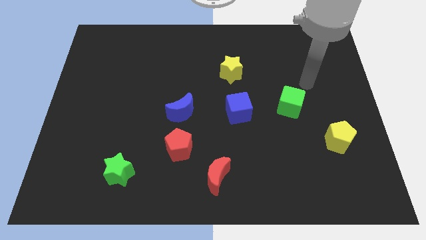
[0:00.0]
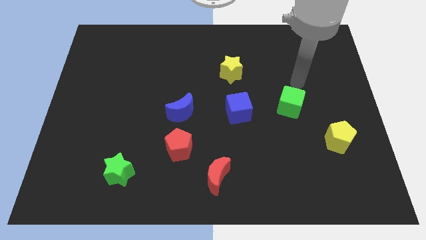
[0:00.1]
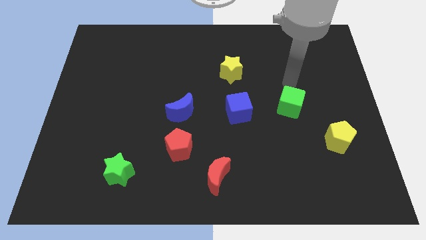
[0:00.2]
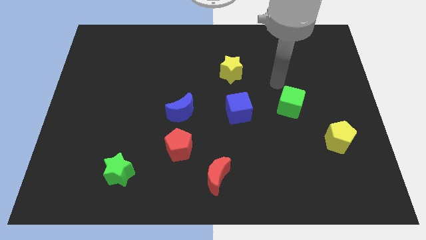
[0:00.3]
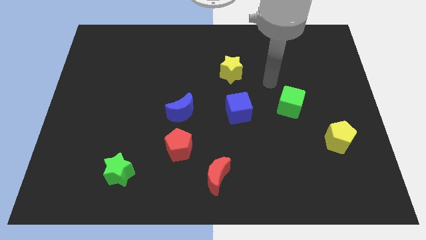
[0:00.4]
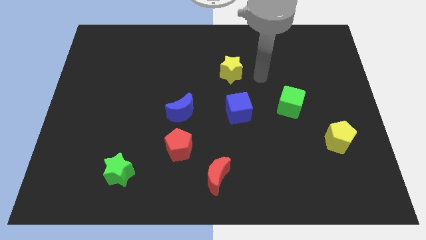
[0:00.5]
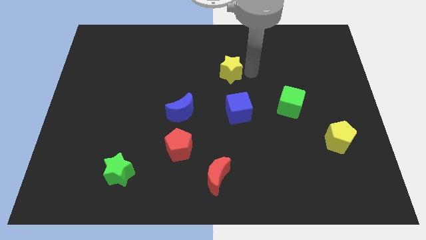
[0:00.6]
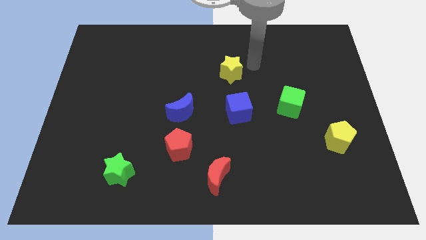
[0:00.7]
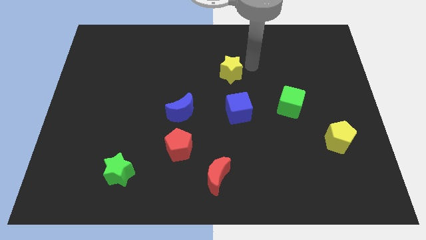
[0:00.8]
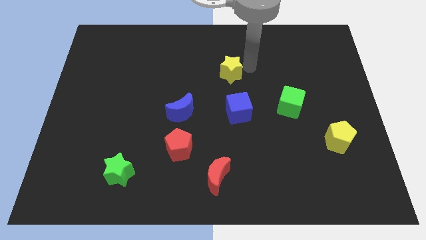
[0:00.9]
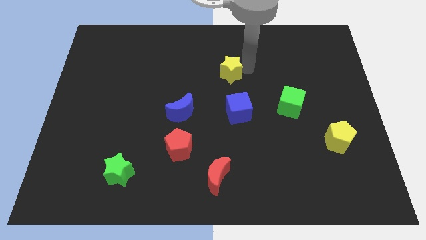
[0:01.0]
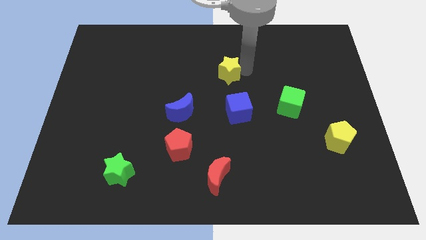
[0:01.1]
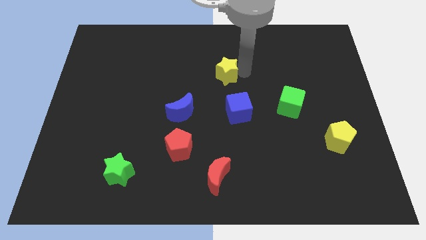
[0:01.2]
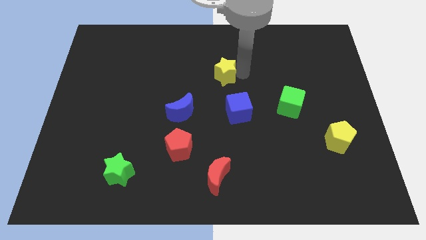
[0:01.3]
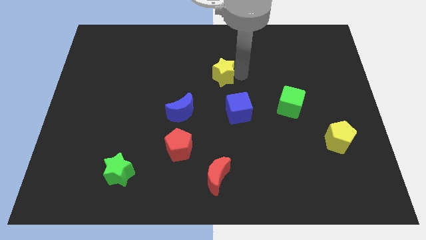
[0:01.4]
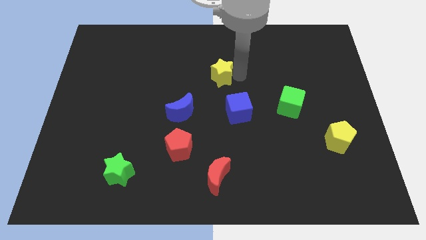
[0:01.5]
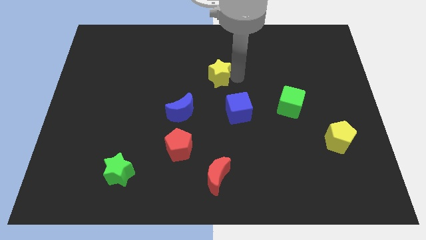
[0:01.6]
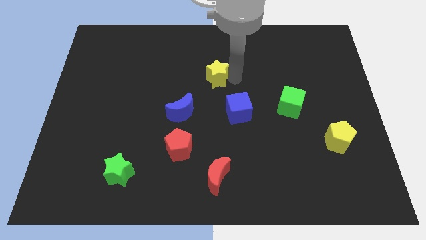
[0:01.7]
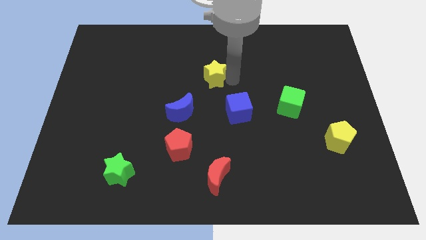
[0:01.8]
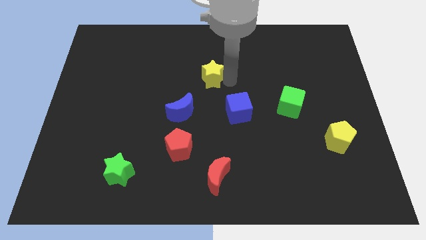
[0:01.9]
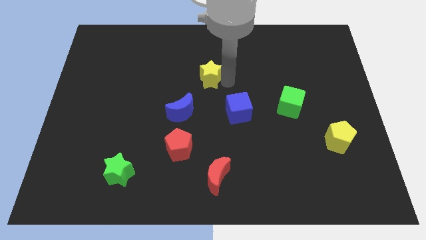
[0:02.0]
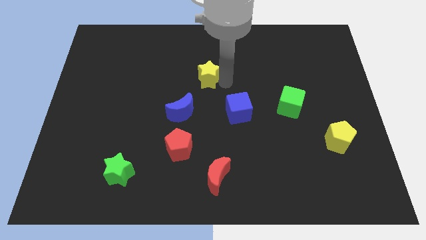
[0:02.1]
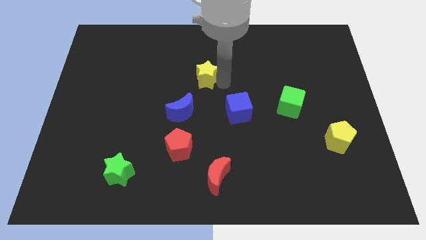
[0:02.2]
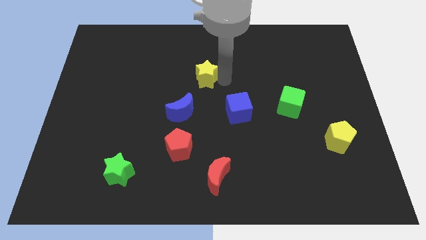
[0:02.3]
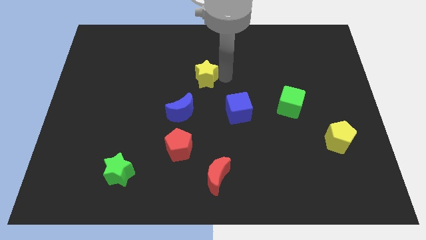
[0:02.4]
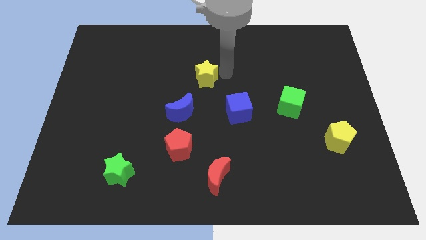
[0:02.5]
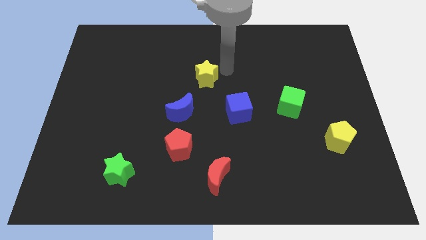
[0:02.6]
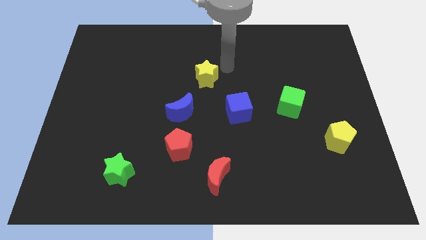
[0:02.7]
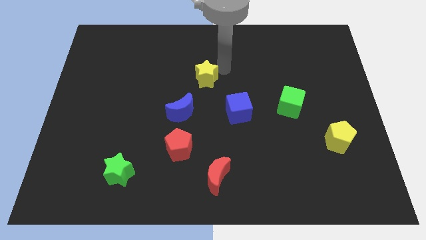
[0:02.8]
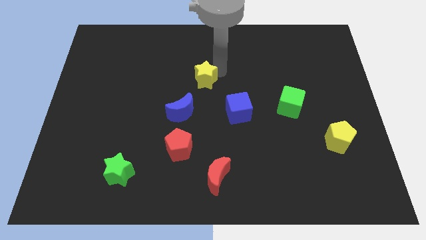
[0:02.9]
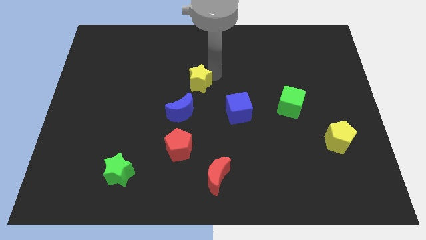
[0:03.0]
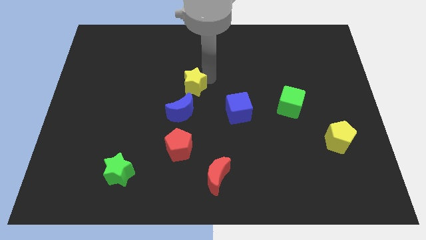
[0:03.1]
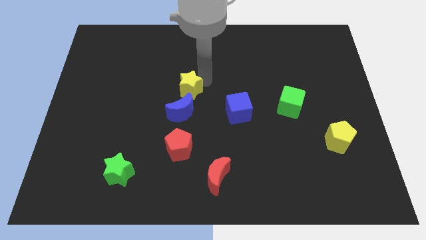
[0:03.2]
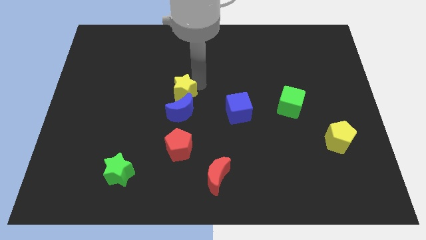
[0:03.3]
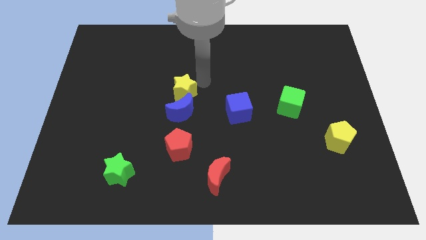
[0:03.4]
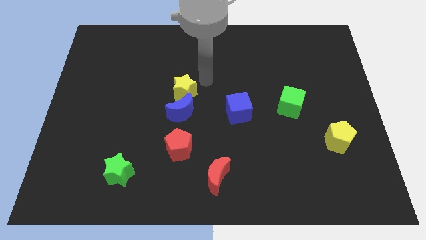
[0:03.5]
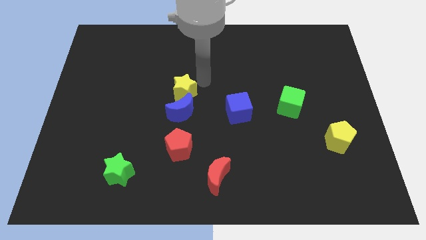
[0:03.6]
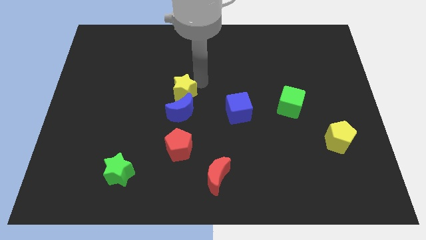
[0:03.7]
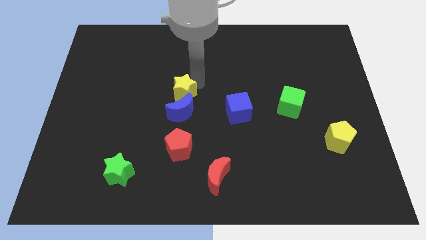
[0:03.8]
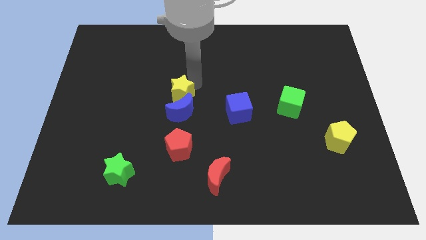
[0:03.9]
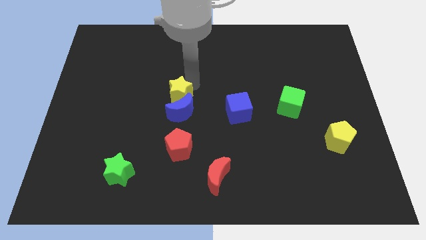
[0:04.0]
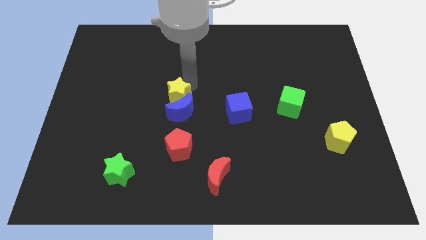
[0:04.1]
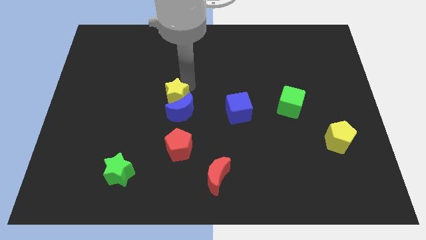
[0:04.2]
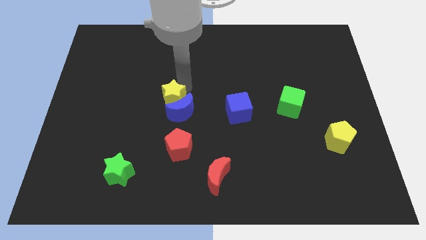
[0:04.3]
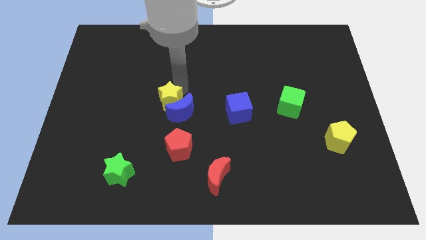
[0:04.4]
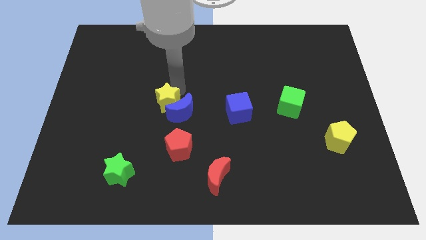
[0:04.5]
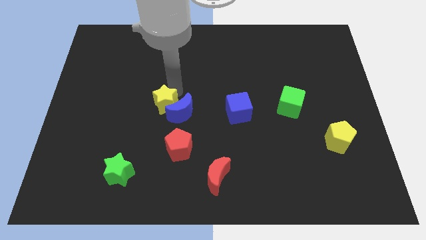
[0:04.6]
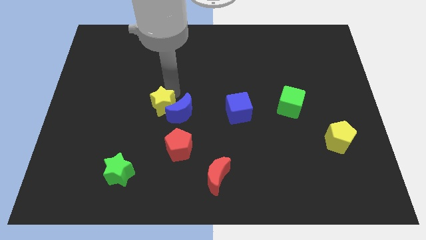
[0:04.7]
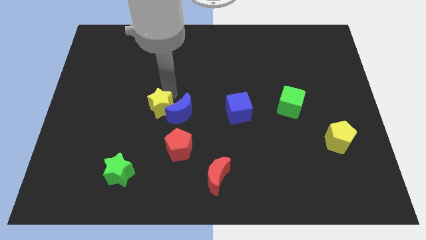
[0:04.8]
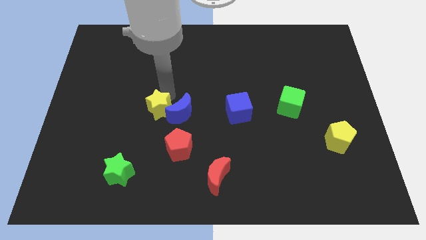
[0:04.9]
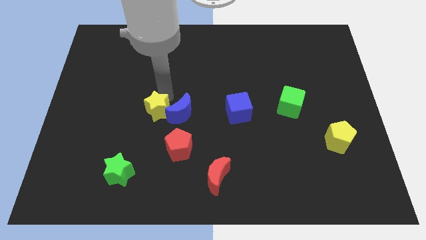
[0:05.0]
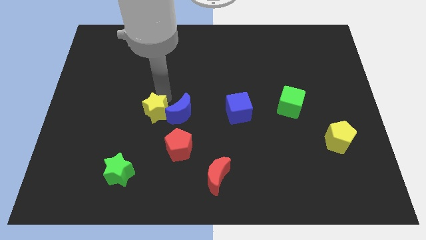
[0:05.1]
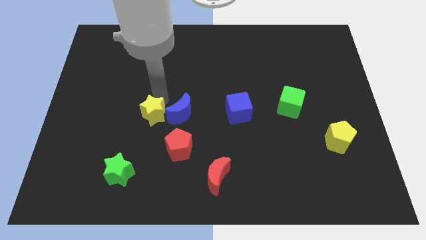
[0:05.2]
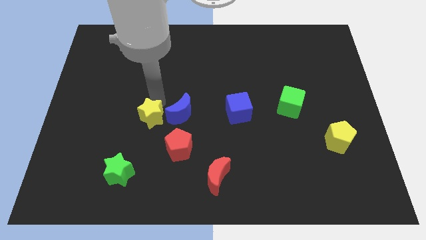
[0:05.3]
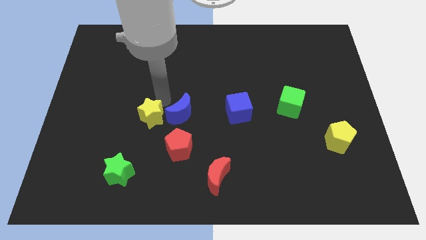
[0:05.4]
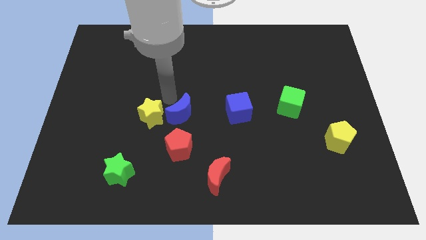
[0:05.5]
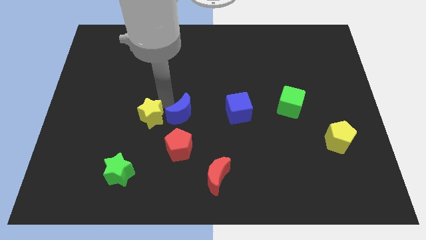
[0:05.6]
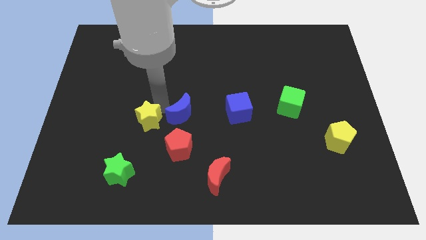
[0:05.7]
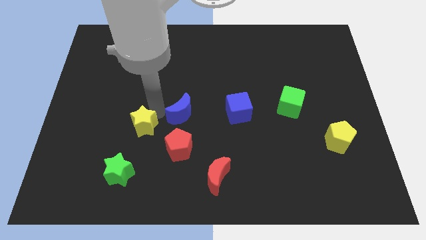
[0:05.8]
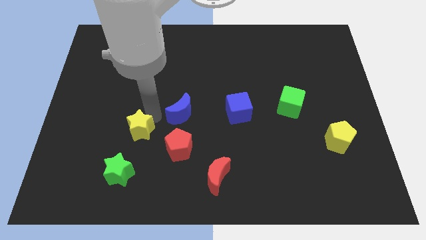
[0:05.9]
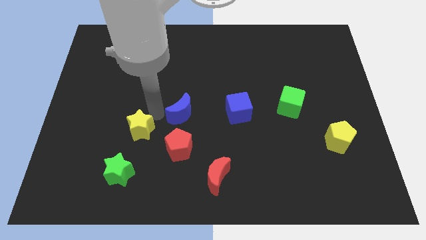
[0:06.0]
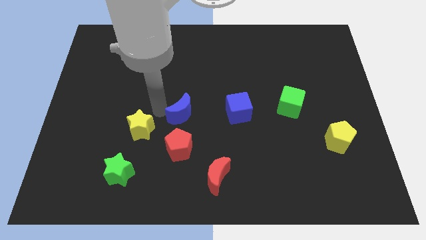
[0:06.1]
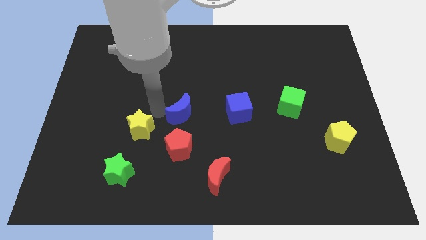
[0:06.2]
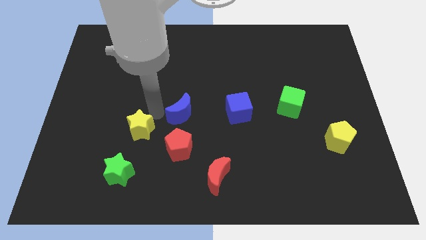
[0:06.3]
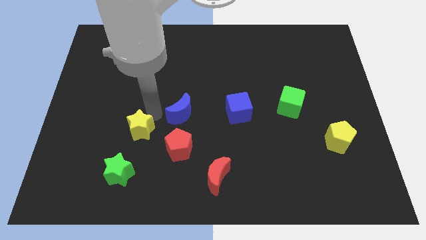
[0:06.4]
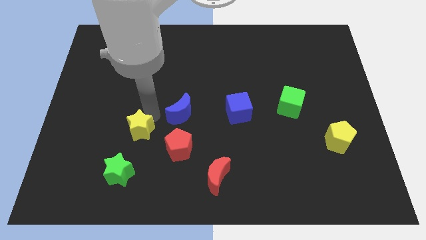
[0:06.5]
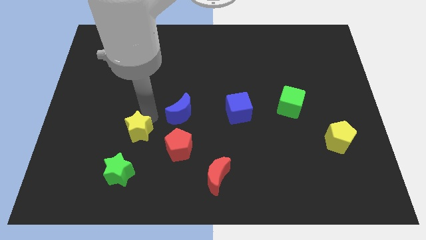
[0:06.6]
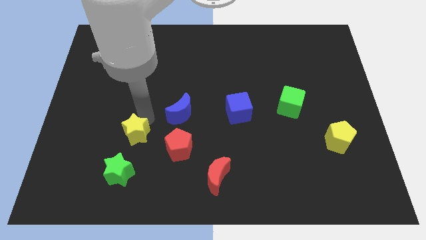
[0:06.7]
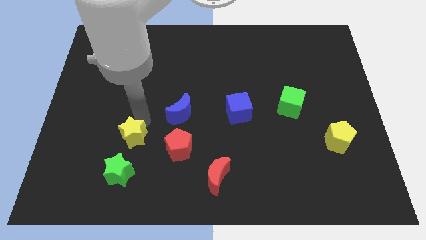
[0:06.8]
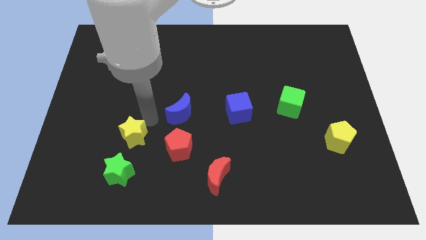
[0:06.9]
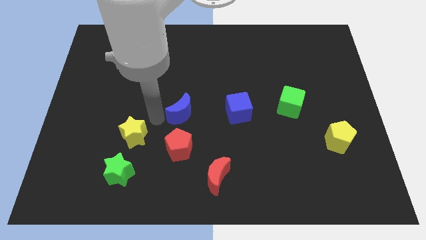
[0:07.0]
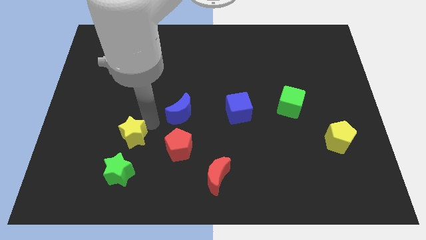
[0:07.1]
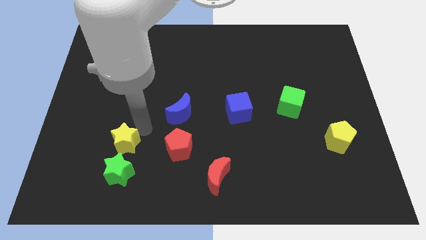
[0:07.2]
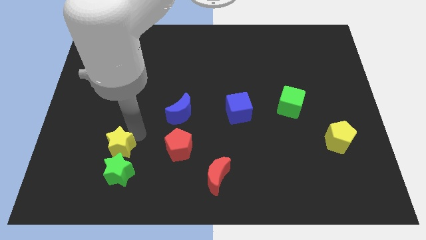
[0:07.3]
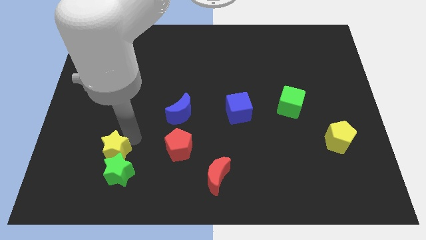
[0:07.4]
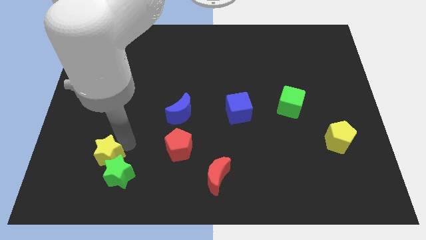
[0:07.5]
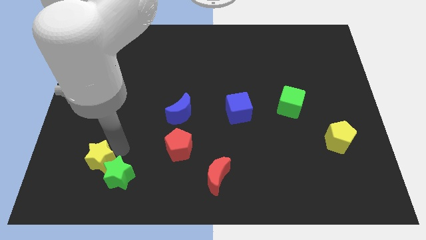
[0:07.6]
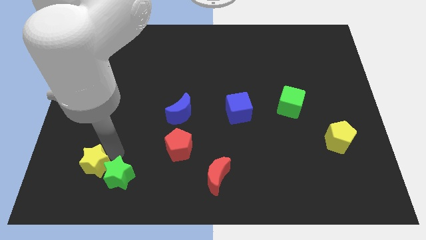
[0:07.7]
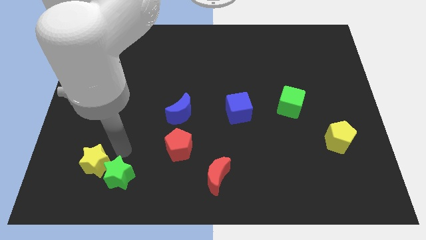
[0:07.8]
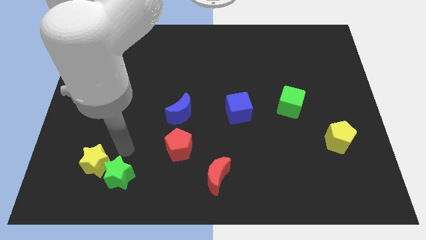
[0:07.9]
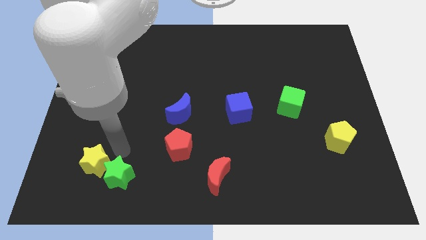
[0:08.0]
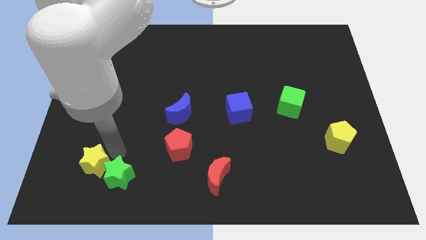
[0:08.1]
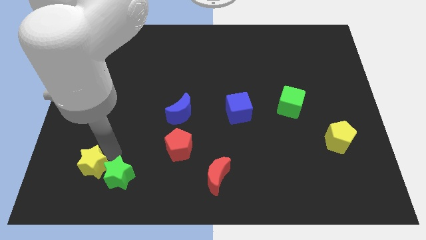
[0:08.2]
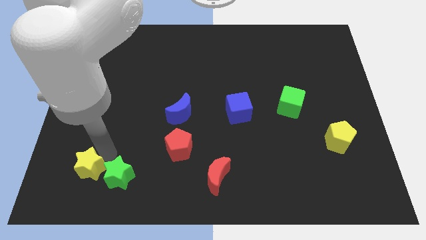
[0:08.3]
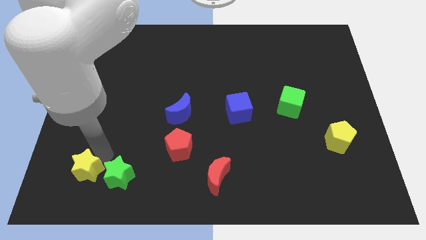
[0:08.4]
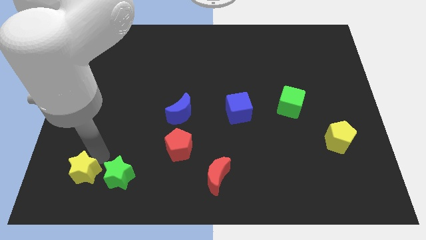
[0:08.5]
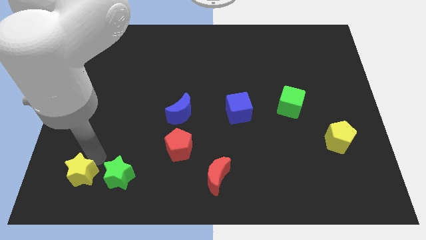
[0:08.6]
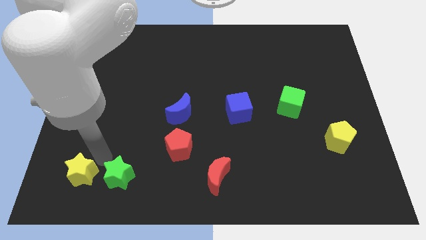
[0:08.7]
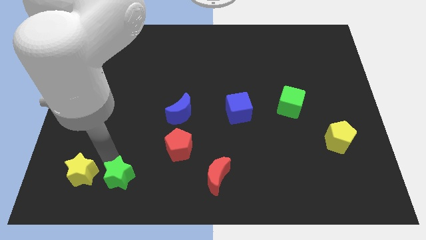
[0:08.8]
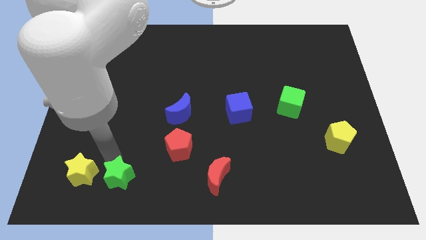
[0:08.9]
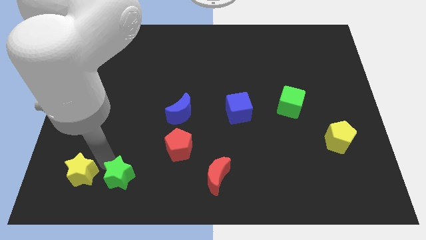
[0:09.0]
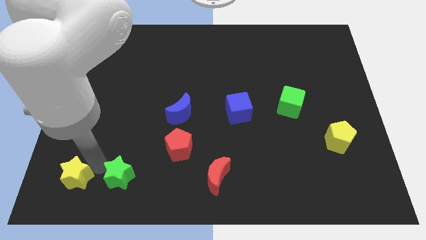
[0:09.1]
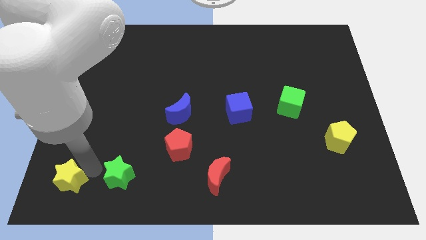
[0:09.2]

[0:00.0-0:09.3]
put the yellow star to the bottom left of the board
